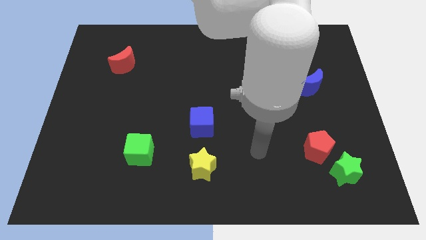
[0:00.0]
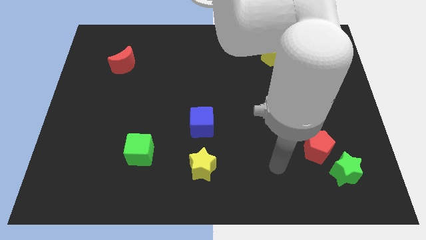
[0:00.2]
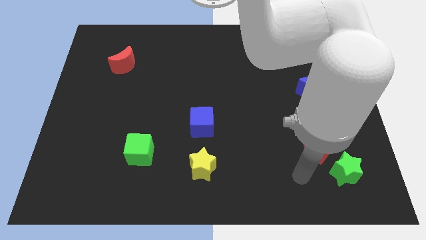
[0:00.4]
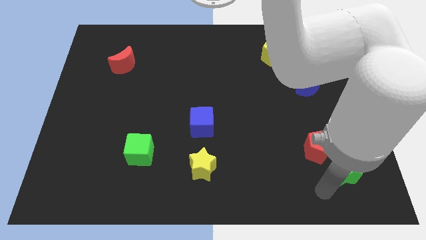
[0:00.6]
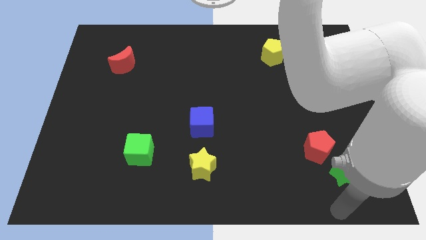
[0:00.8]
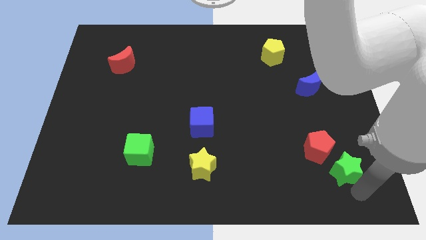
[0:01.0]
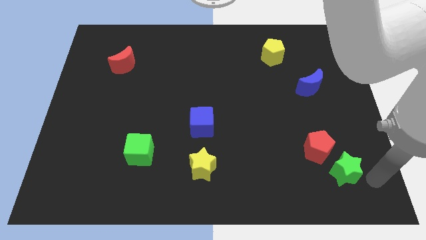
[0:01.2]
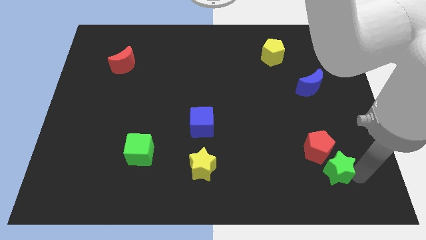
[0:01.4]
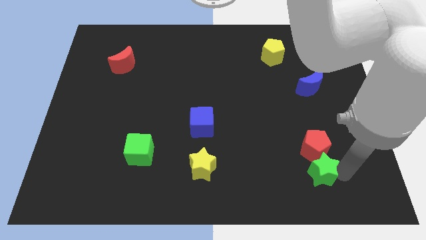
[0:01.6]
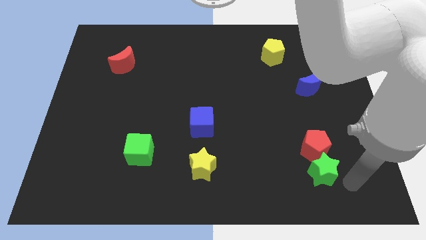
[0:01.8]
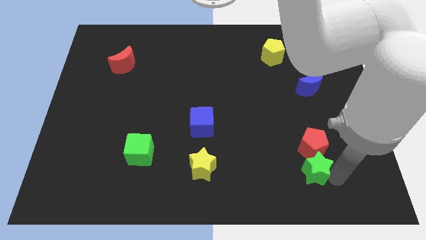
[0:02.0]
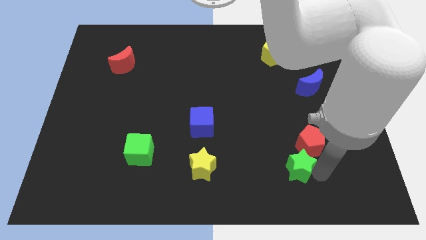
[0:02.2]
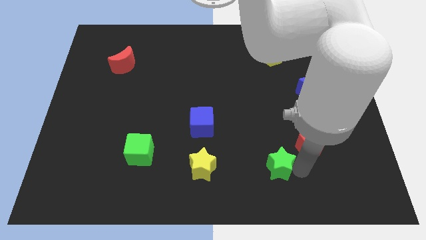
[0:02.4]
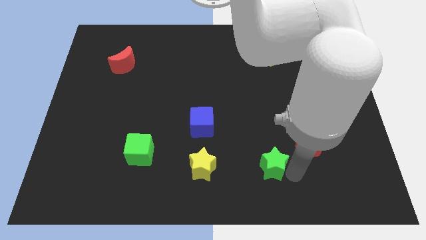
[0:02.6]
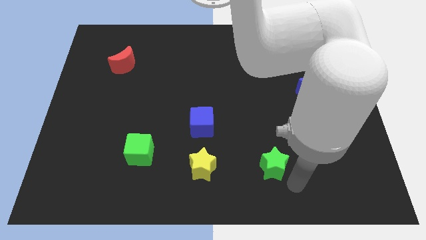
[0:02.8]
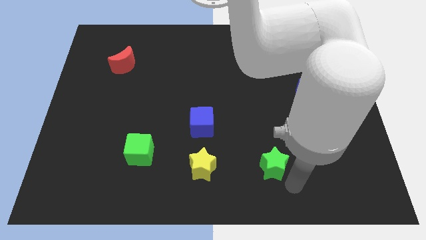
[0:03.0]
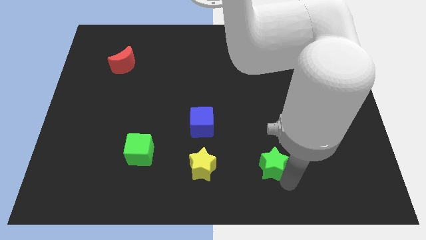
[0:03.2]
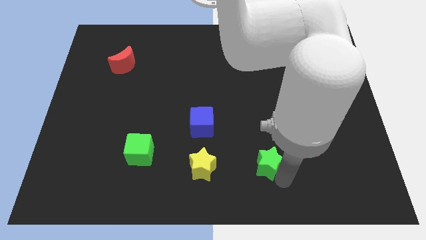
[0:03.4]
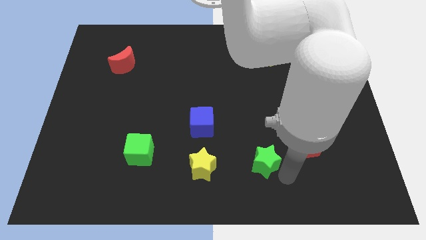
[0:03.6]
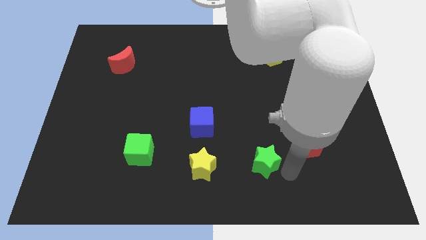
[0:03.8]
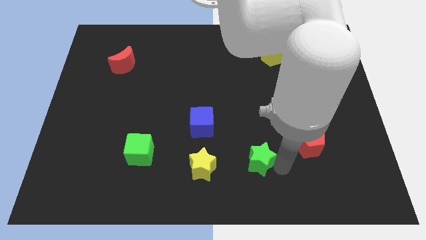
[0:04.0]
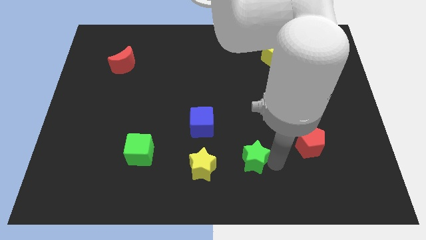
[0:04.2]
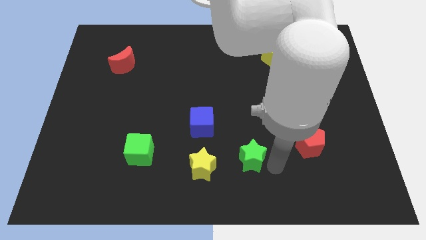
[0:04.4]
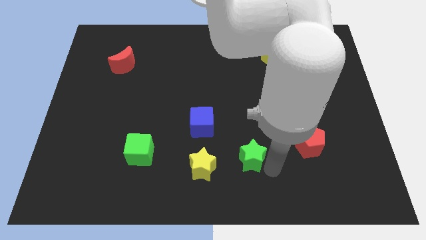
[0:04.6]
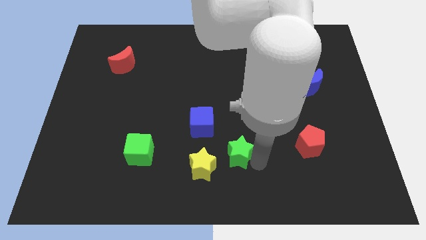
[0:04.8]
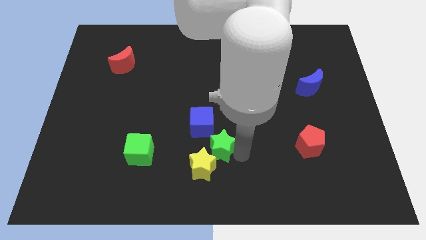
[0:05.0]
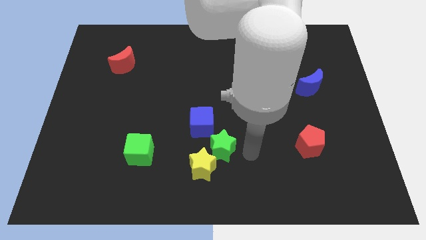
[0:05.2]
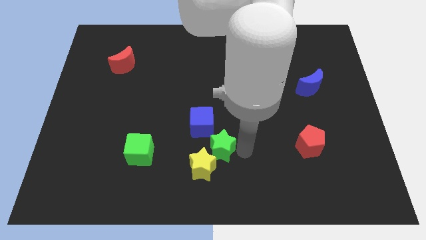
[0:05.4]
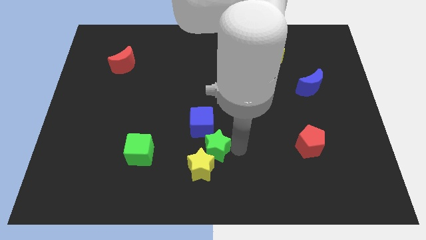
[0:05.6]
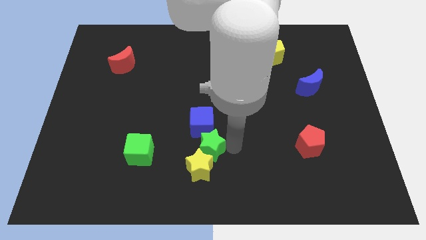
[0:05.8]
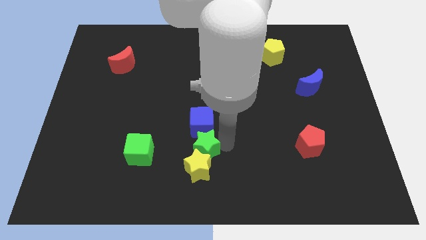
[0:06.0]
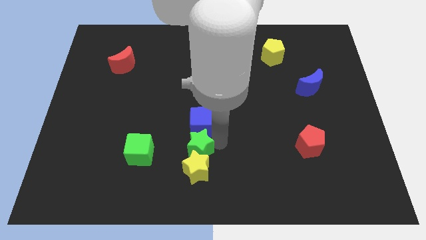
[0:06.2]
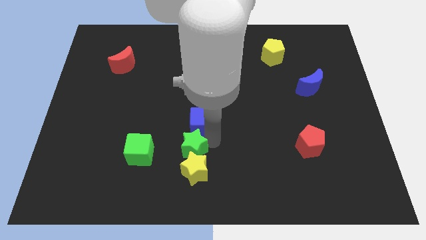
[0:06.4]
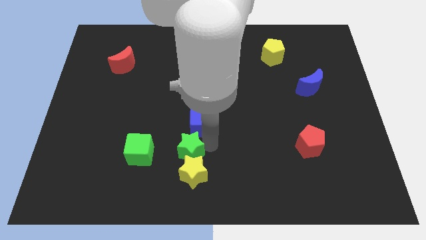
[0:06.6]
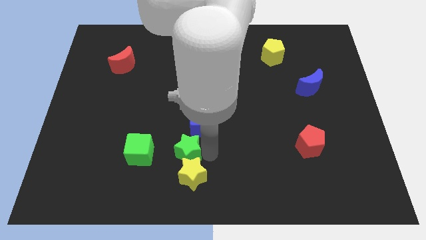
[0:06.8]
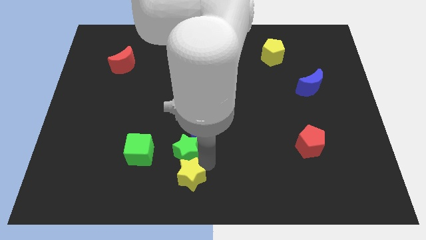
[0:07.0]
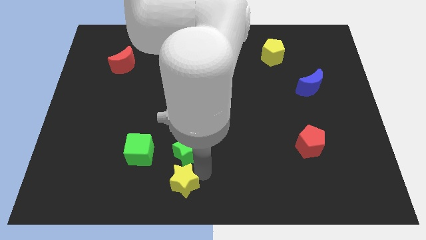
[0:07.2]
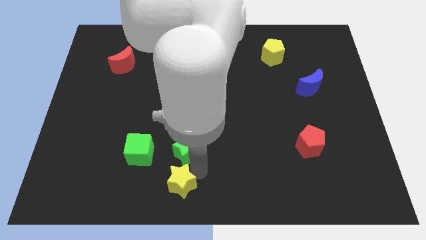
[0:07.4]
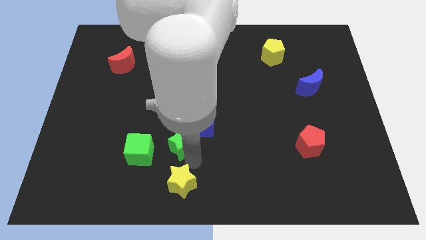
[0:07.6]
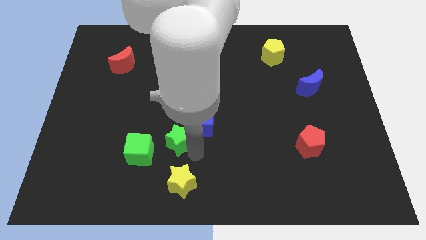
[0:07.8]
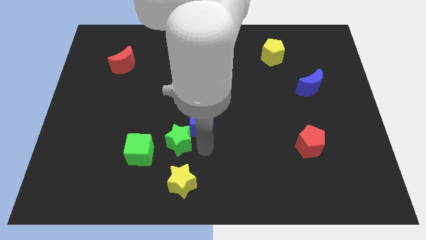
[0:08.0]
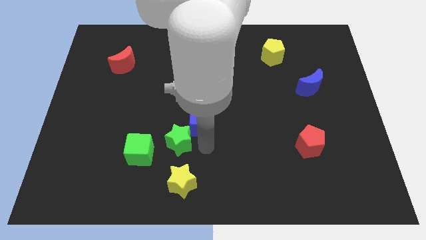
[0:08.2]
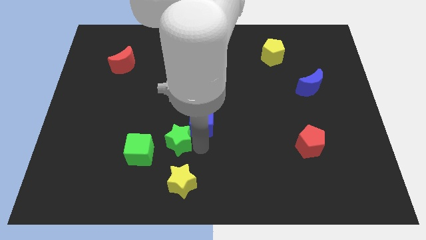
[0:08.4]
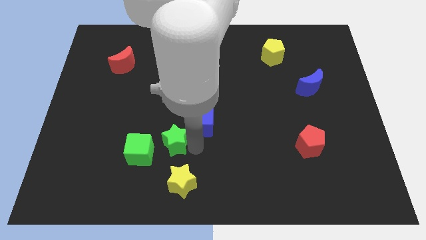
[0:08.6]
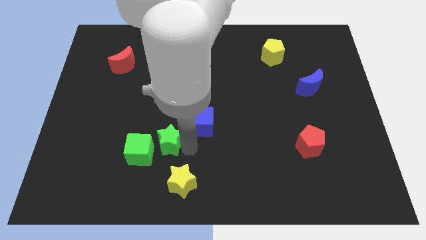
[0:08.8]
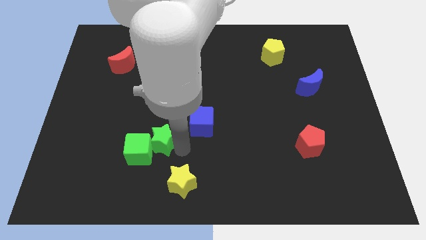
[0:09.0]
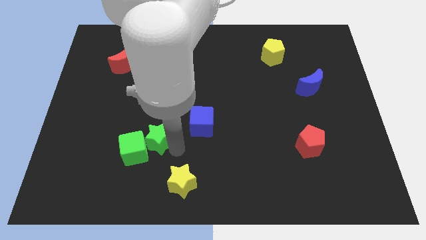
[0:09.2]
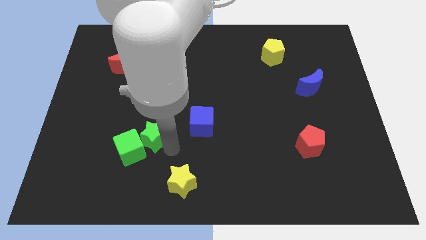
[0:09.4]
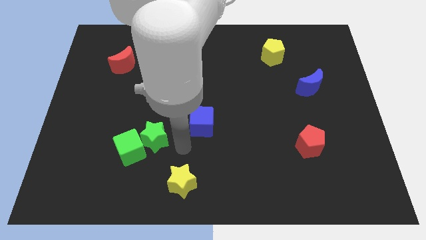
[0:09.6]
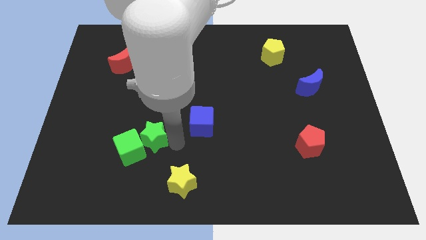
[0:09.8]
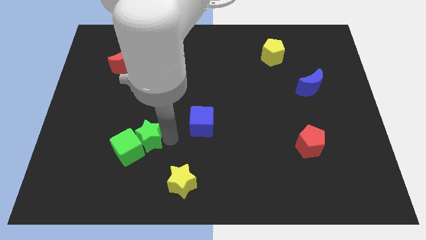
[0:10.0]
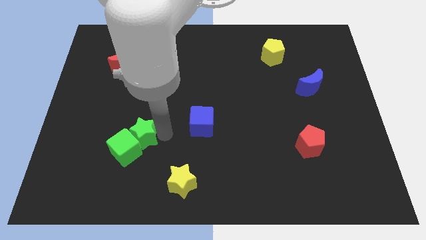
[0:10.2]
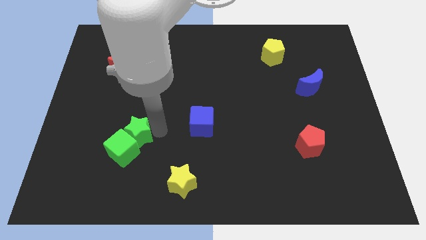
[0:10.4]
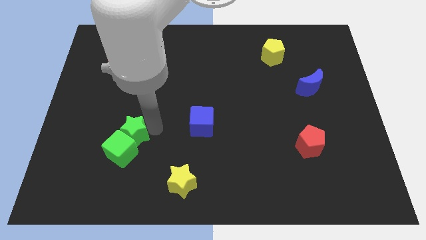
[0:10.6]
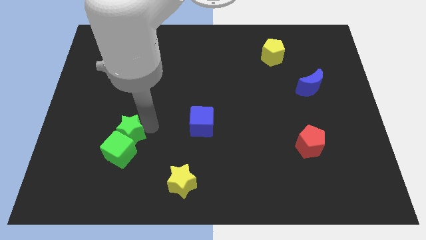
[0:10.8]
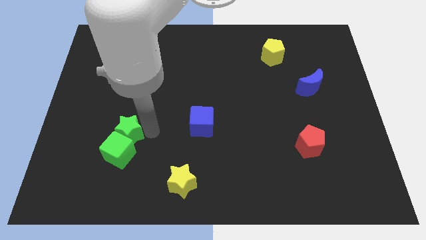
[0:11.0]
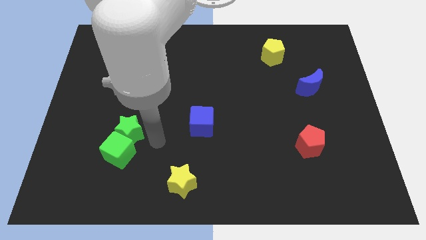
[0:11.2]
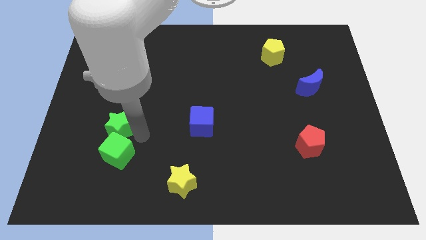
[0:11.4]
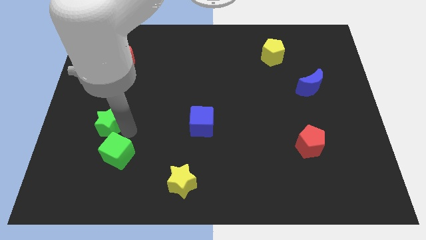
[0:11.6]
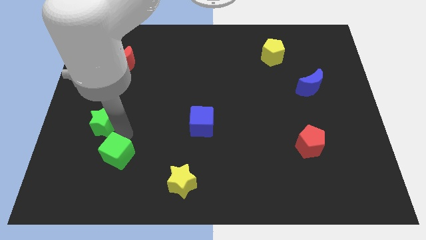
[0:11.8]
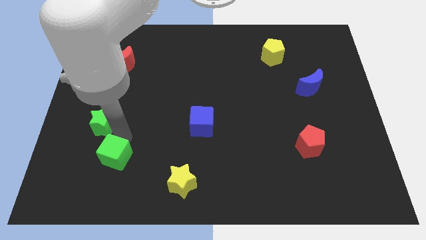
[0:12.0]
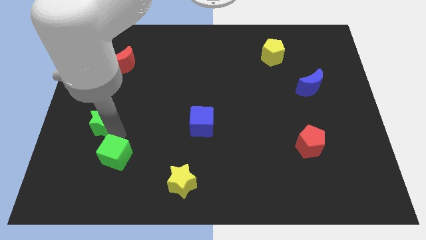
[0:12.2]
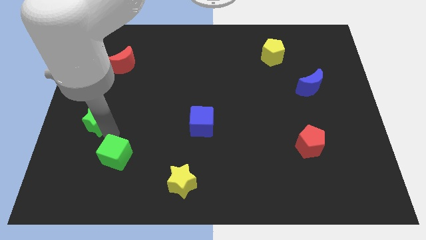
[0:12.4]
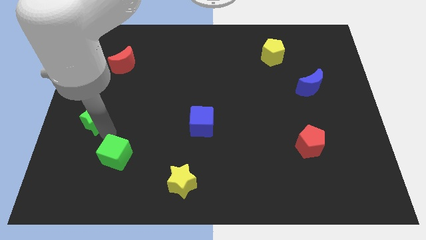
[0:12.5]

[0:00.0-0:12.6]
push the green star to the center left

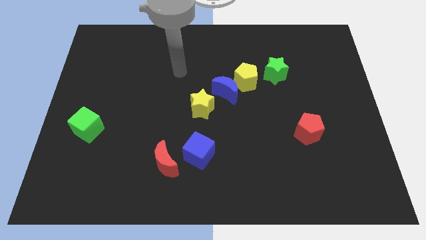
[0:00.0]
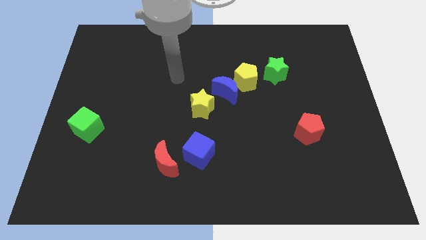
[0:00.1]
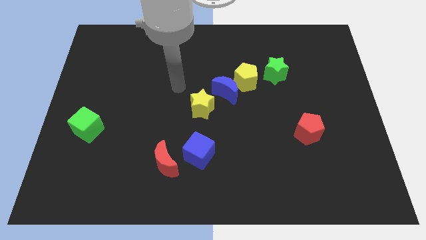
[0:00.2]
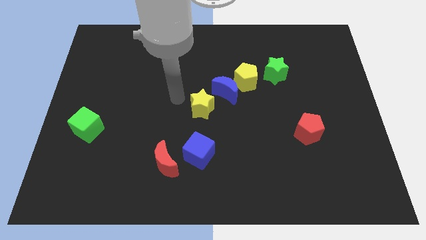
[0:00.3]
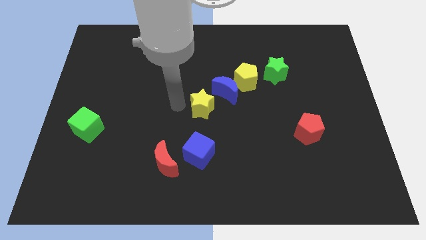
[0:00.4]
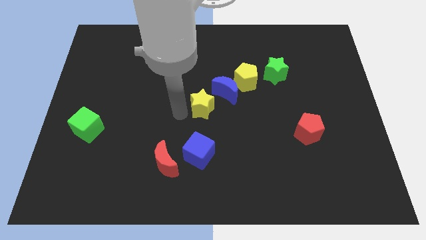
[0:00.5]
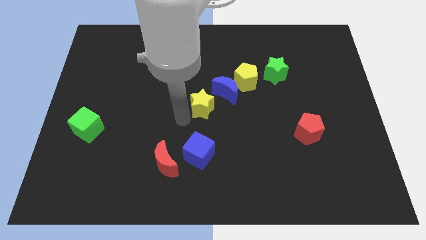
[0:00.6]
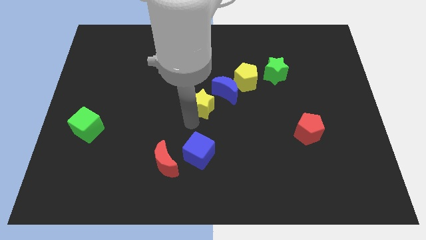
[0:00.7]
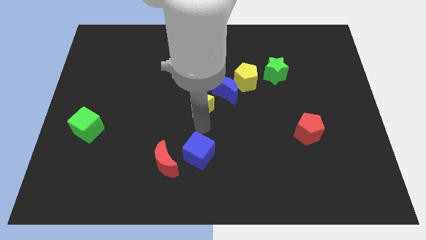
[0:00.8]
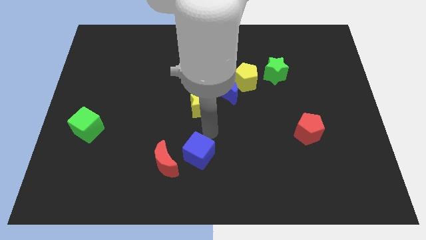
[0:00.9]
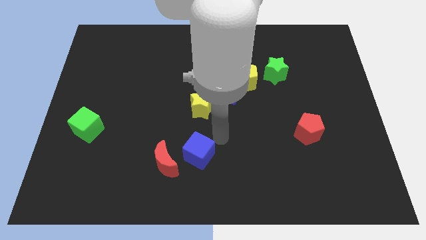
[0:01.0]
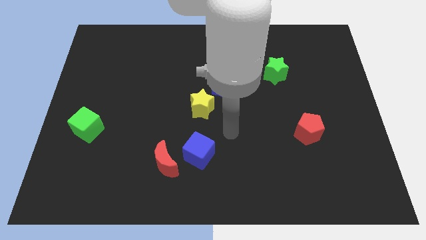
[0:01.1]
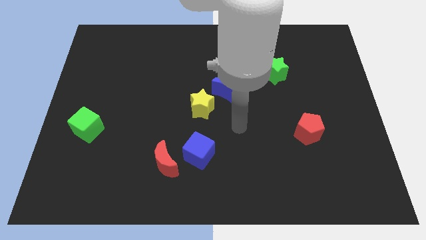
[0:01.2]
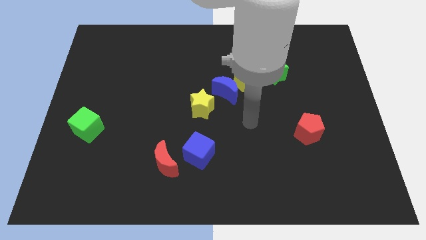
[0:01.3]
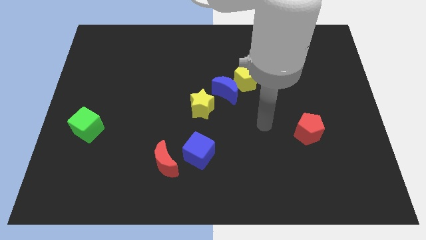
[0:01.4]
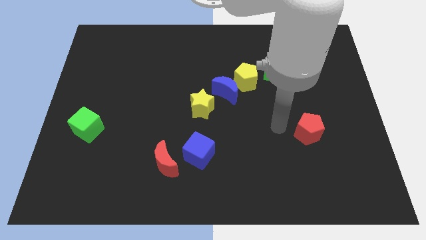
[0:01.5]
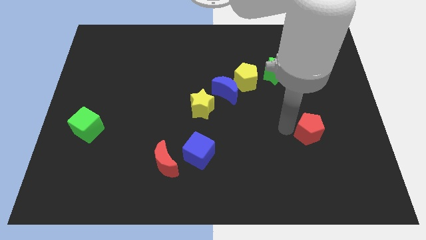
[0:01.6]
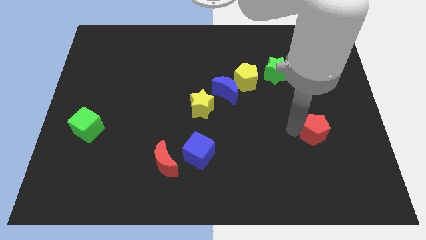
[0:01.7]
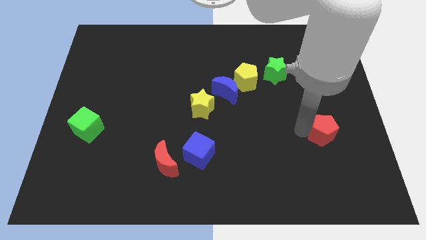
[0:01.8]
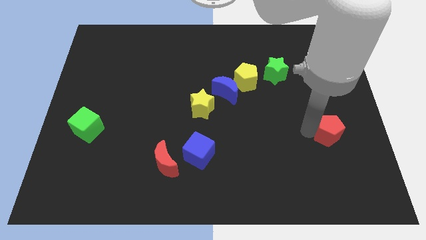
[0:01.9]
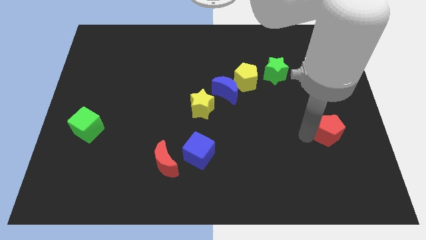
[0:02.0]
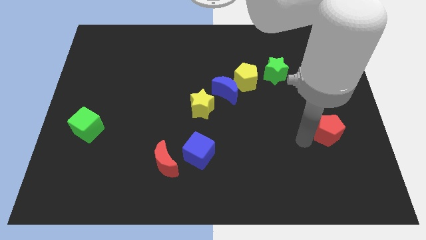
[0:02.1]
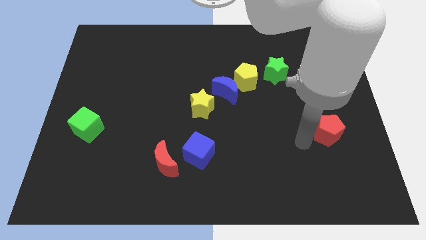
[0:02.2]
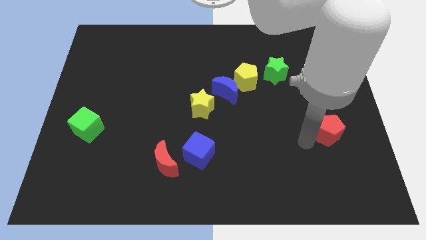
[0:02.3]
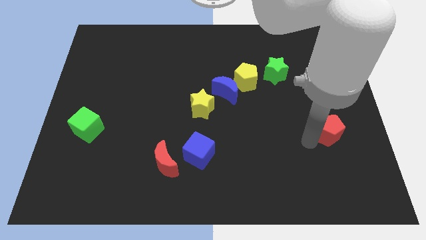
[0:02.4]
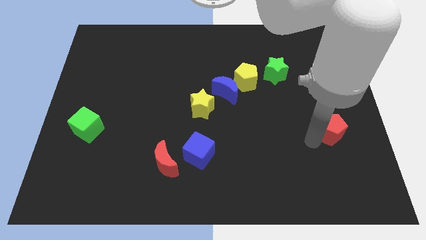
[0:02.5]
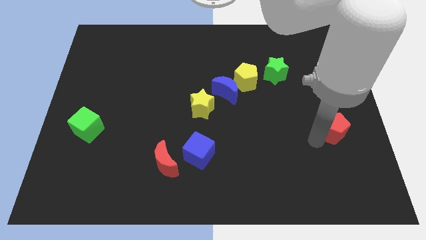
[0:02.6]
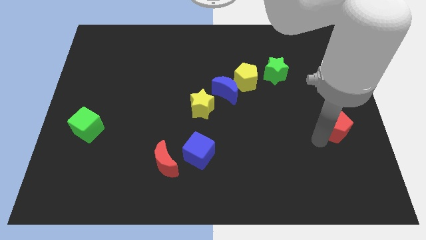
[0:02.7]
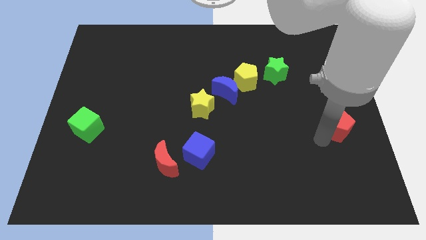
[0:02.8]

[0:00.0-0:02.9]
push the red pentagon to the center right
